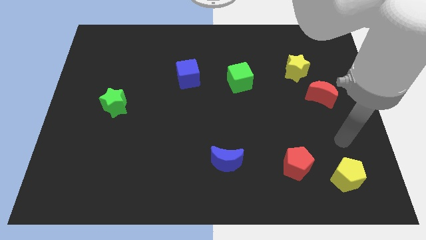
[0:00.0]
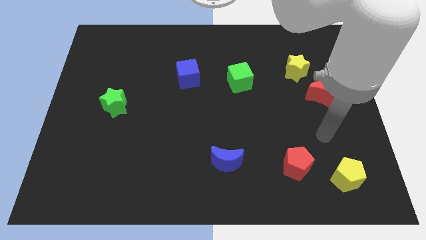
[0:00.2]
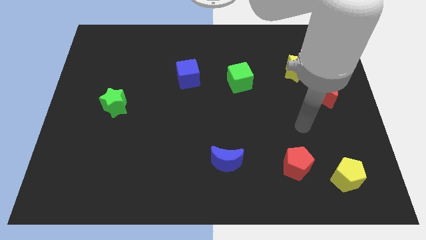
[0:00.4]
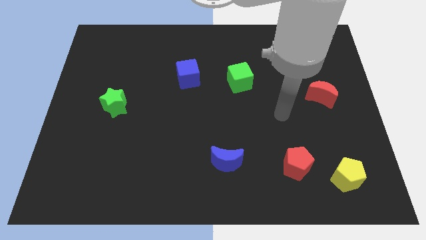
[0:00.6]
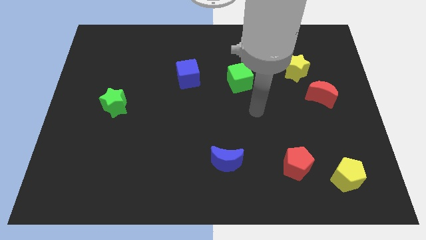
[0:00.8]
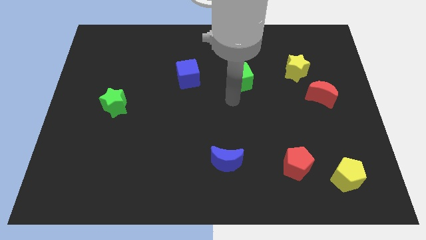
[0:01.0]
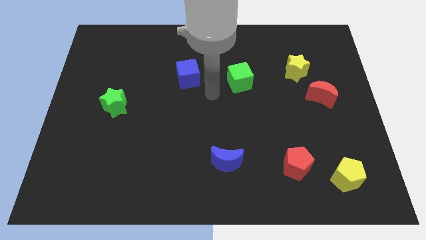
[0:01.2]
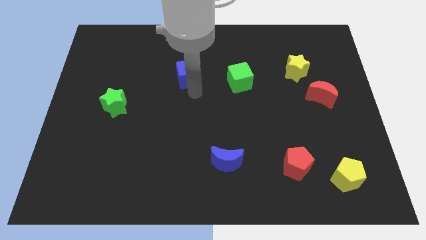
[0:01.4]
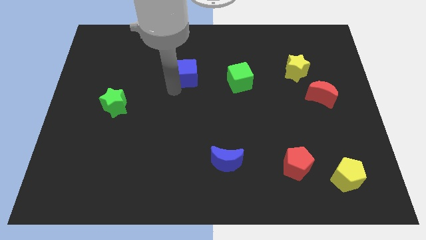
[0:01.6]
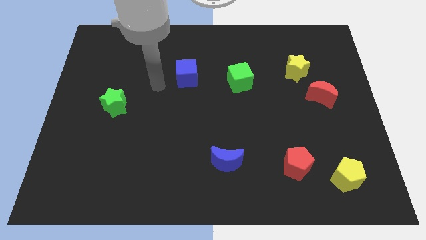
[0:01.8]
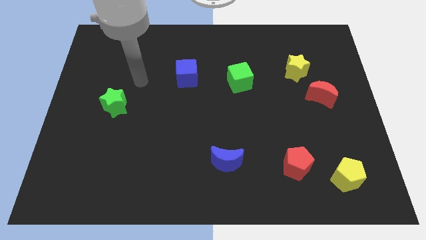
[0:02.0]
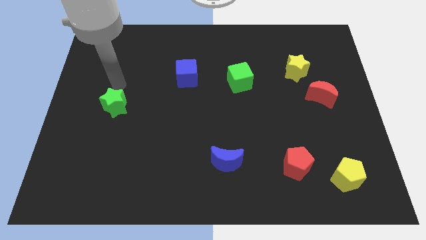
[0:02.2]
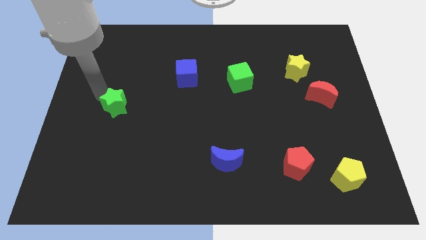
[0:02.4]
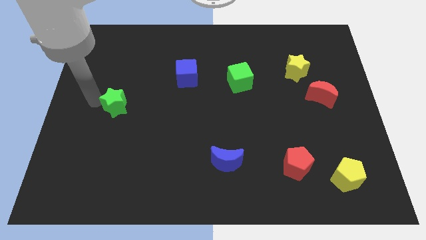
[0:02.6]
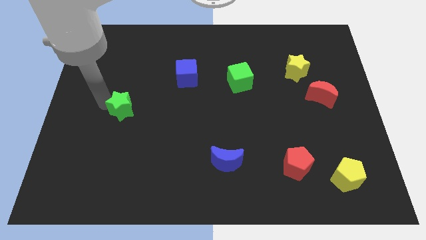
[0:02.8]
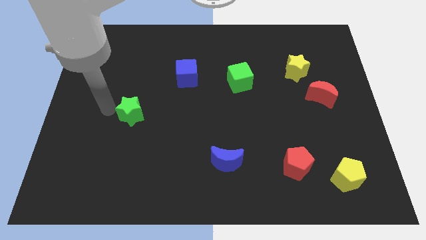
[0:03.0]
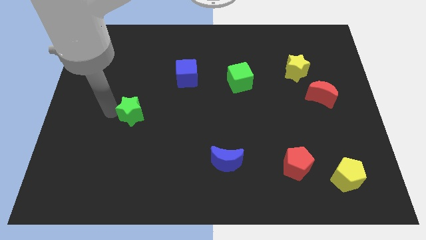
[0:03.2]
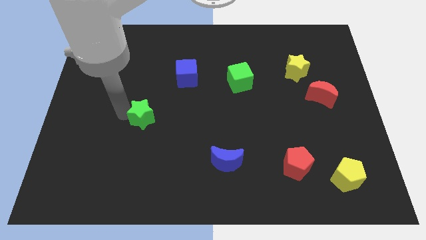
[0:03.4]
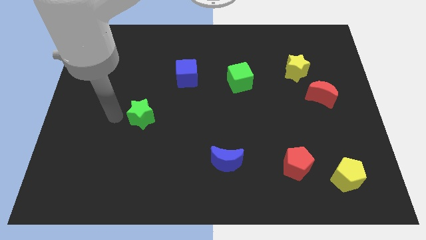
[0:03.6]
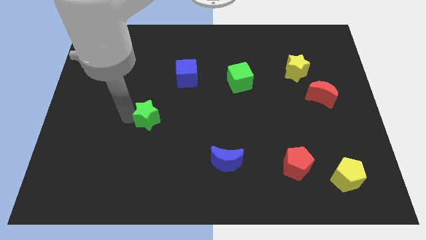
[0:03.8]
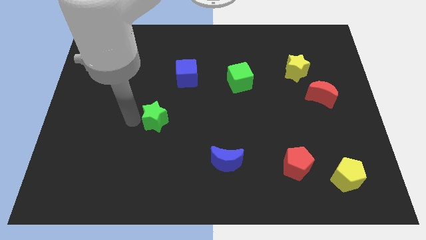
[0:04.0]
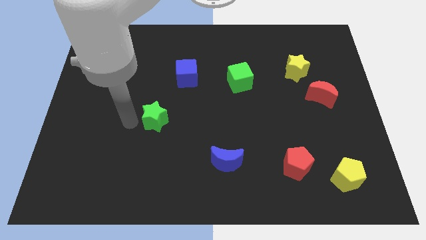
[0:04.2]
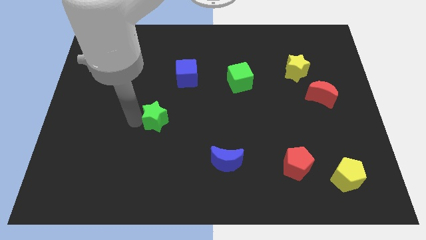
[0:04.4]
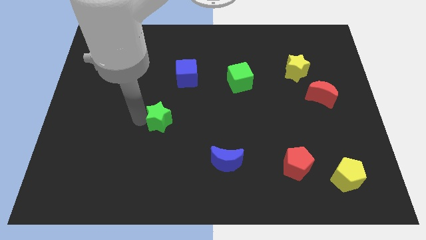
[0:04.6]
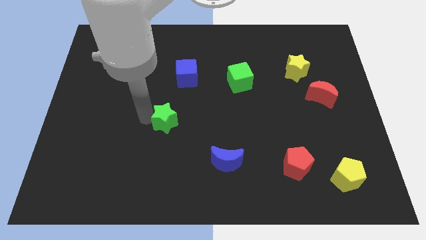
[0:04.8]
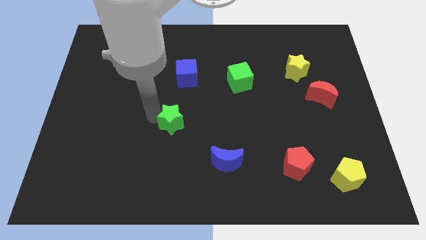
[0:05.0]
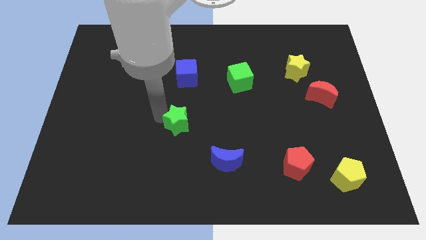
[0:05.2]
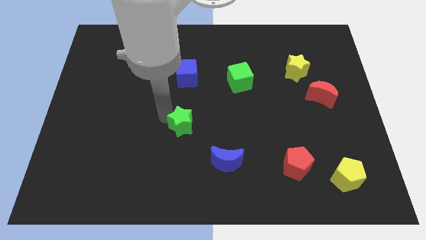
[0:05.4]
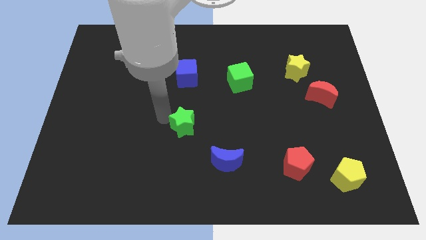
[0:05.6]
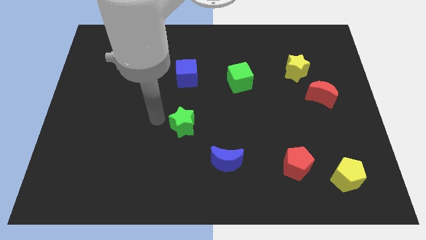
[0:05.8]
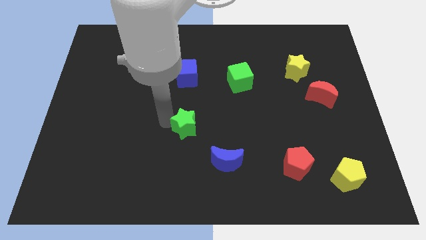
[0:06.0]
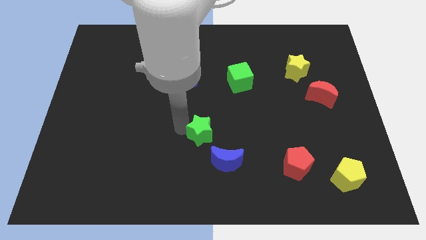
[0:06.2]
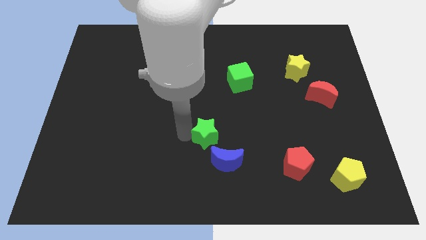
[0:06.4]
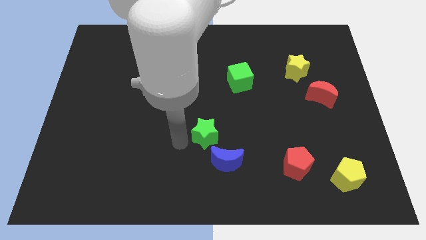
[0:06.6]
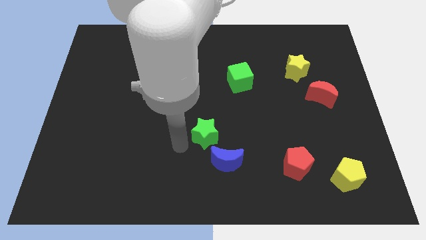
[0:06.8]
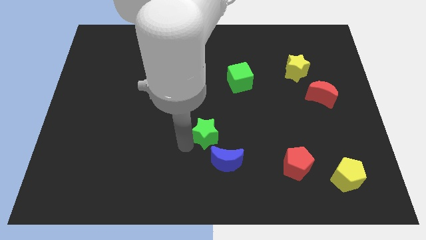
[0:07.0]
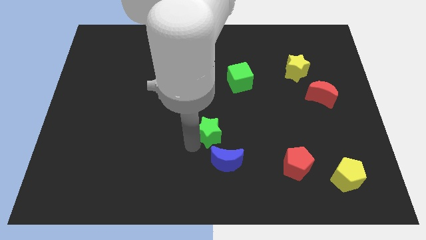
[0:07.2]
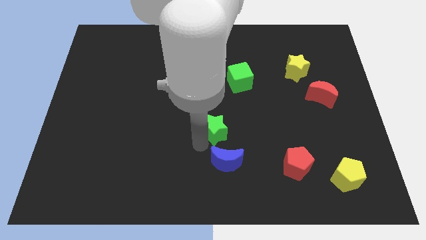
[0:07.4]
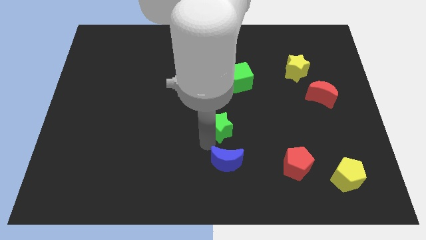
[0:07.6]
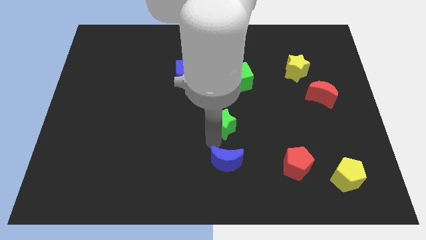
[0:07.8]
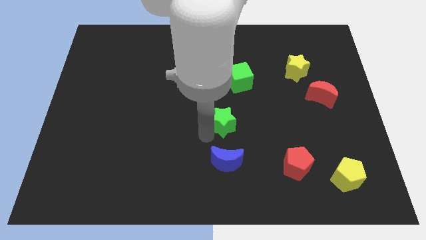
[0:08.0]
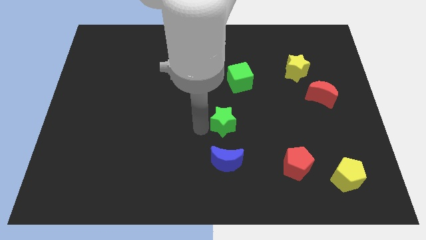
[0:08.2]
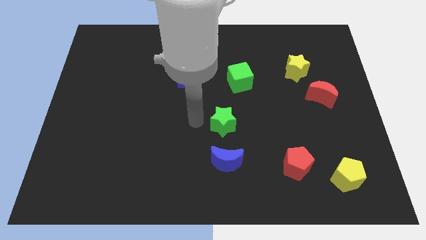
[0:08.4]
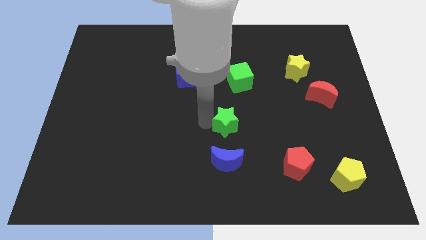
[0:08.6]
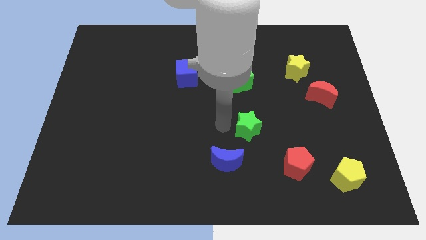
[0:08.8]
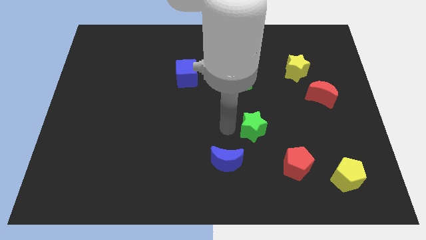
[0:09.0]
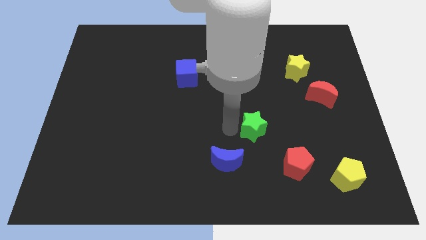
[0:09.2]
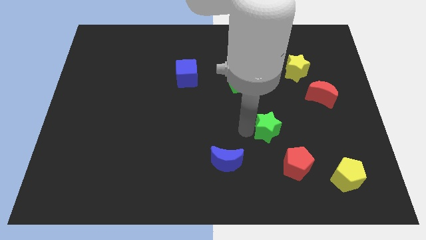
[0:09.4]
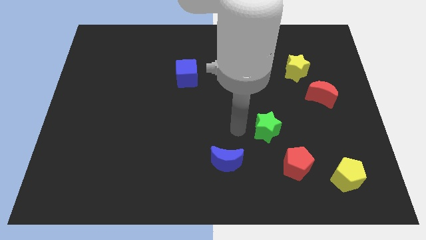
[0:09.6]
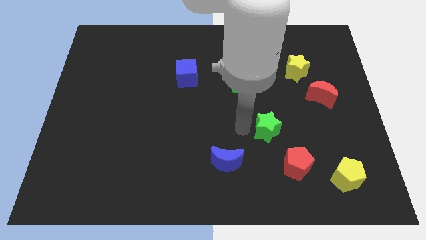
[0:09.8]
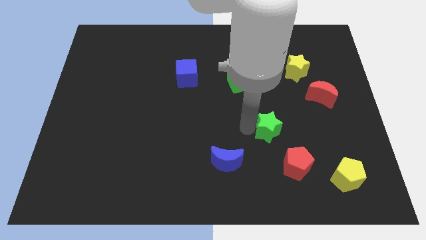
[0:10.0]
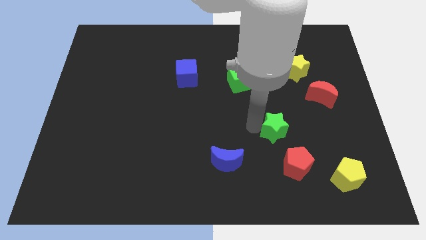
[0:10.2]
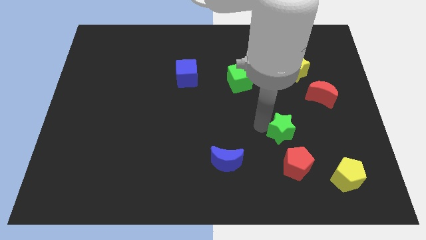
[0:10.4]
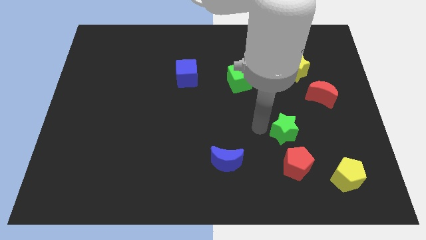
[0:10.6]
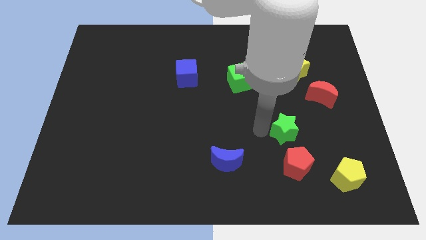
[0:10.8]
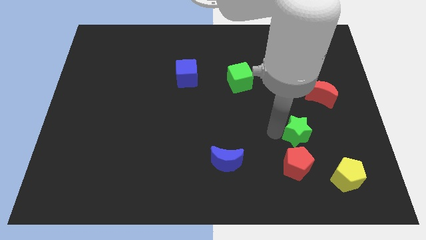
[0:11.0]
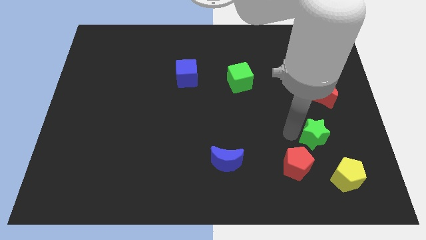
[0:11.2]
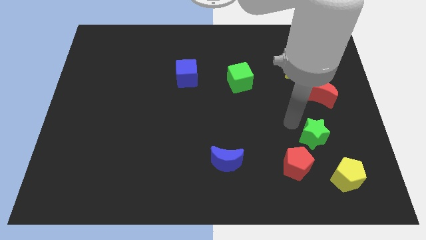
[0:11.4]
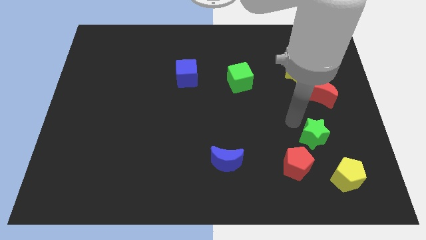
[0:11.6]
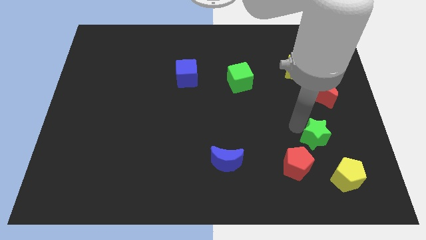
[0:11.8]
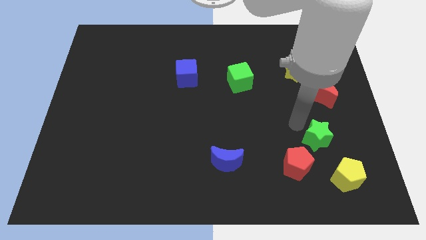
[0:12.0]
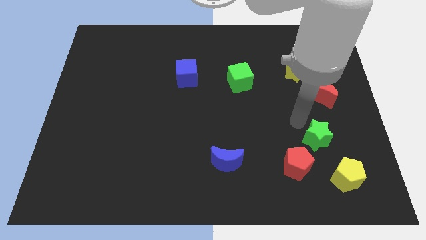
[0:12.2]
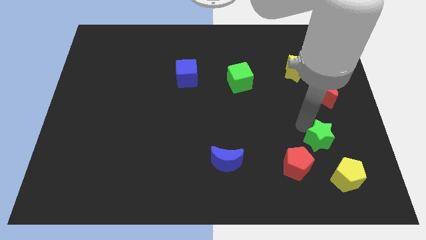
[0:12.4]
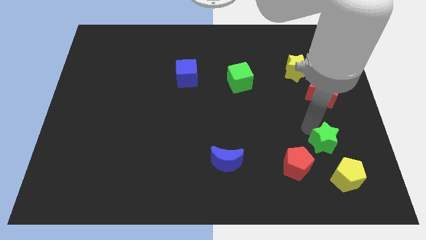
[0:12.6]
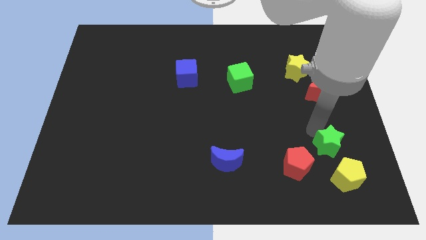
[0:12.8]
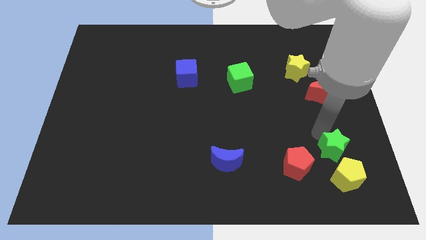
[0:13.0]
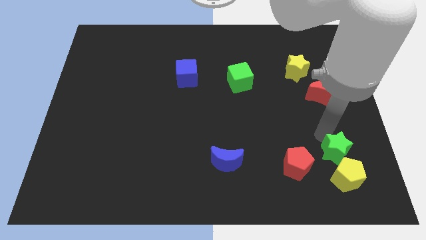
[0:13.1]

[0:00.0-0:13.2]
push the green star close to the yellow pentagon

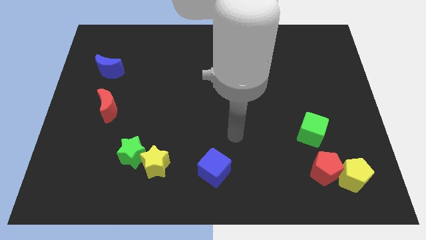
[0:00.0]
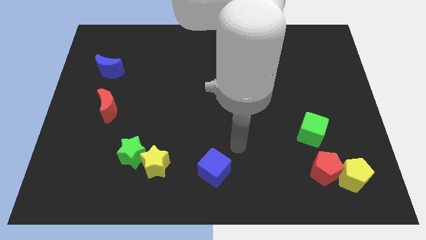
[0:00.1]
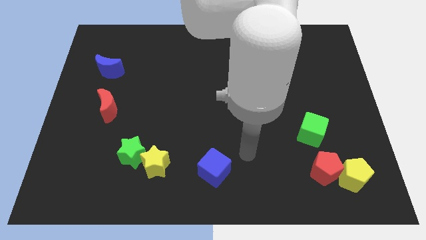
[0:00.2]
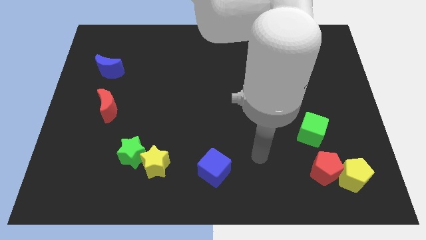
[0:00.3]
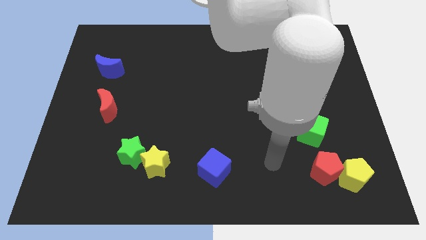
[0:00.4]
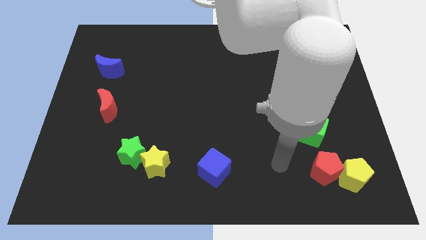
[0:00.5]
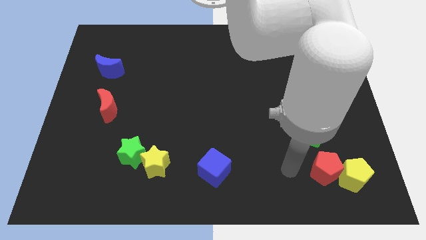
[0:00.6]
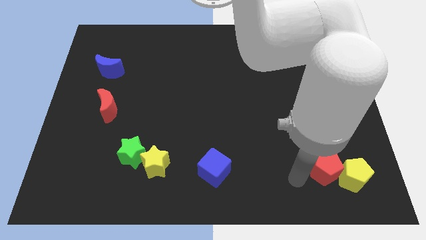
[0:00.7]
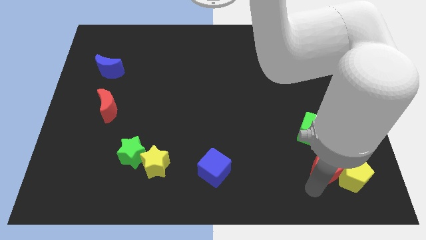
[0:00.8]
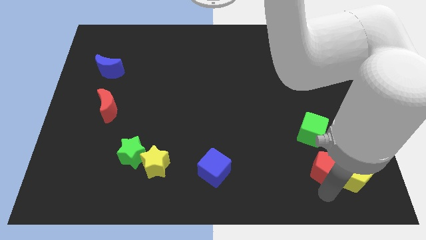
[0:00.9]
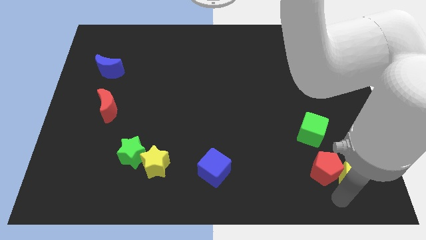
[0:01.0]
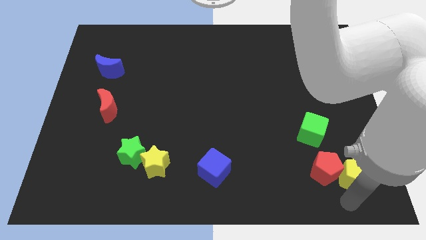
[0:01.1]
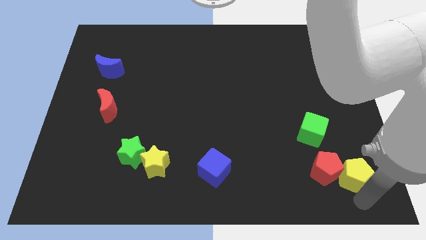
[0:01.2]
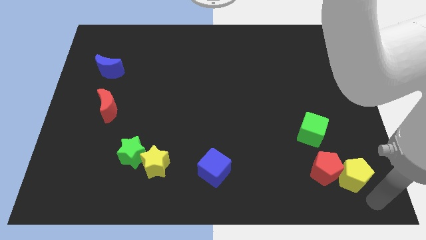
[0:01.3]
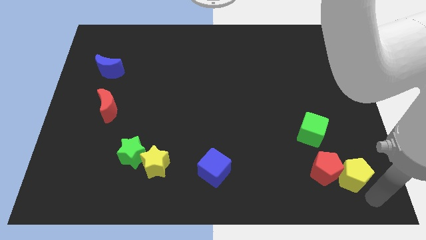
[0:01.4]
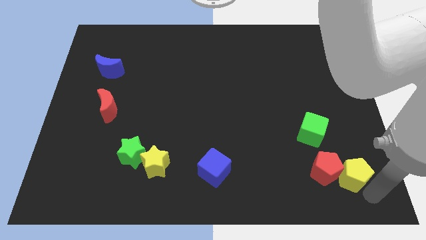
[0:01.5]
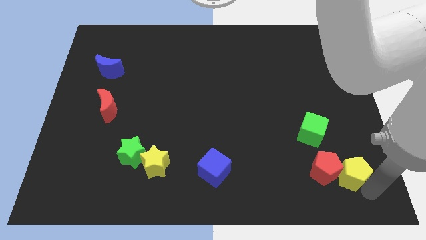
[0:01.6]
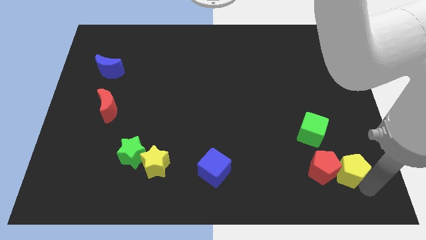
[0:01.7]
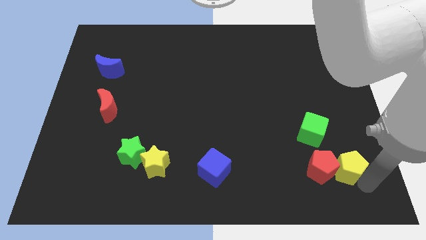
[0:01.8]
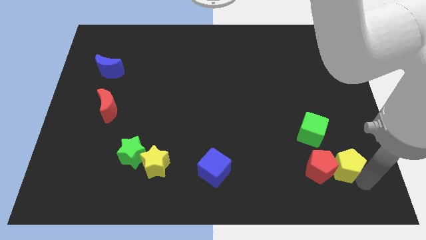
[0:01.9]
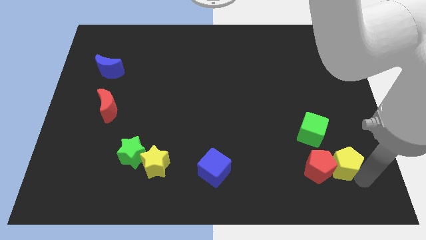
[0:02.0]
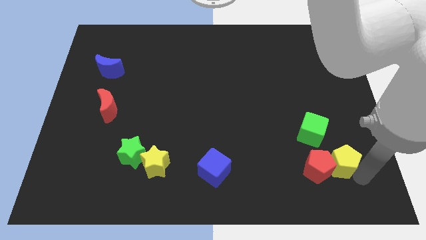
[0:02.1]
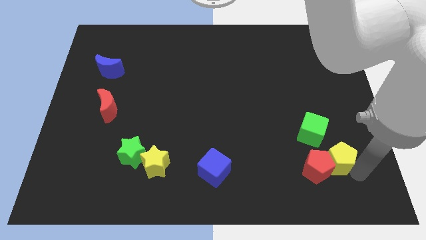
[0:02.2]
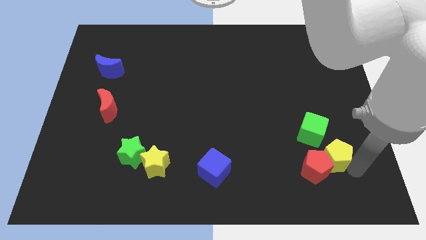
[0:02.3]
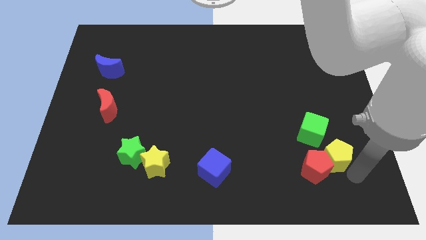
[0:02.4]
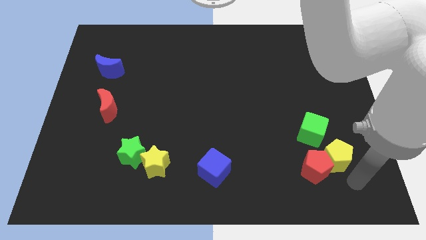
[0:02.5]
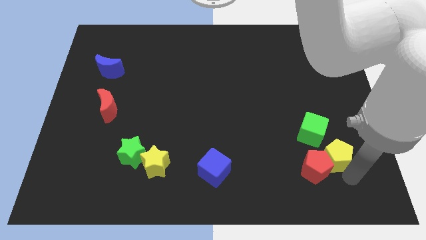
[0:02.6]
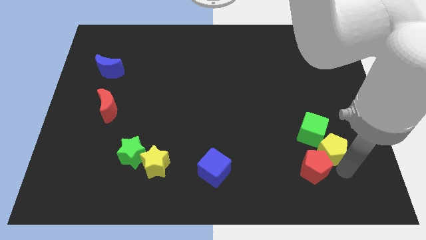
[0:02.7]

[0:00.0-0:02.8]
move the yellow pentagon next to the green cube
